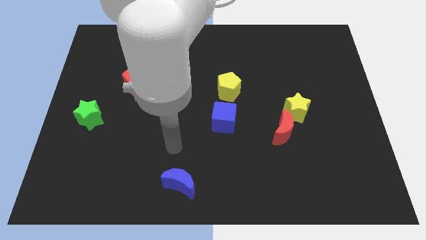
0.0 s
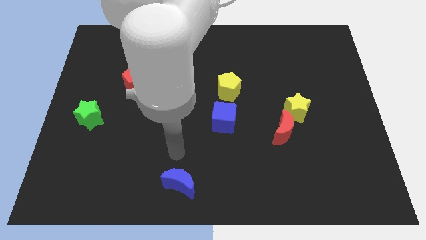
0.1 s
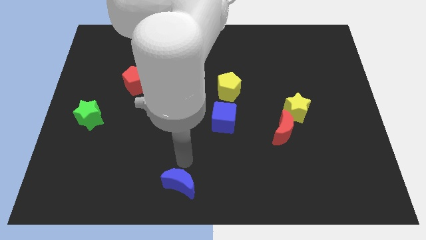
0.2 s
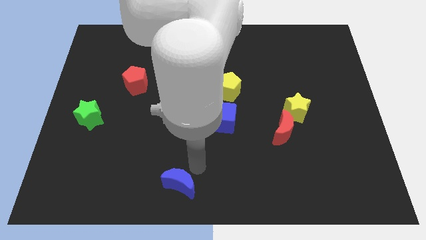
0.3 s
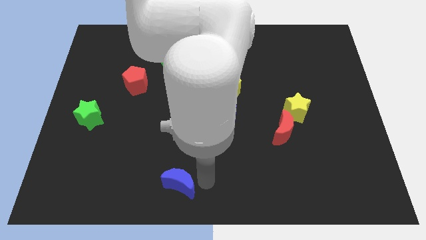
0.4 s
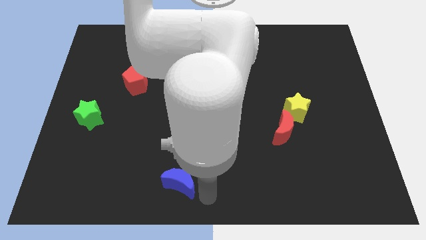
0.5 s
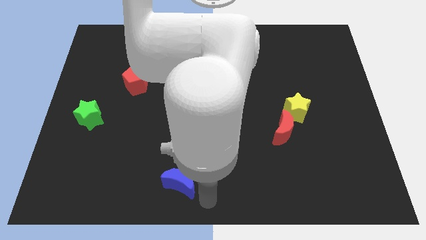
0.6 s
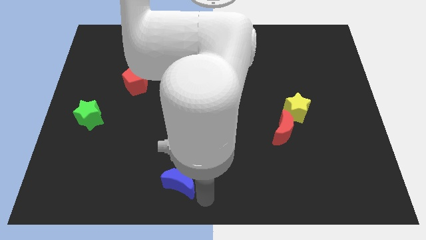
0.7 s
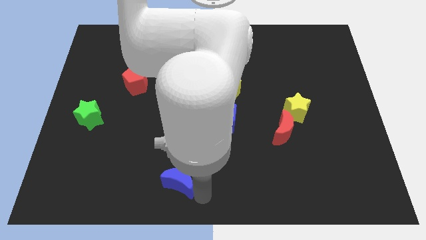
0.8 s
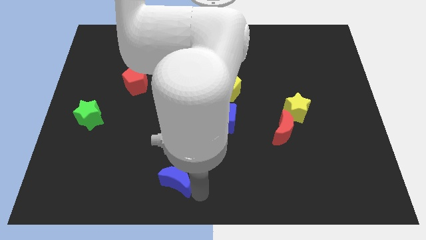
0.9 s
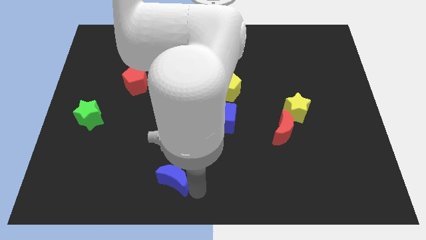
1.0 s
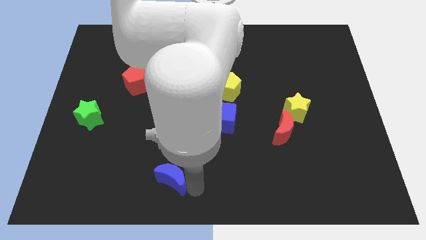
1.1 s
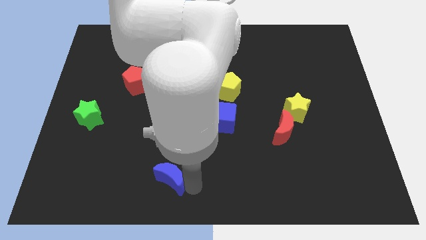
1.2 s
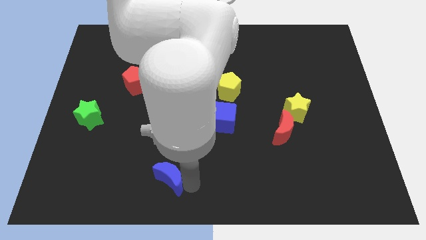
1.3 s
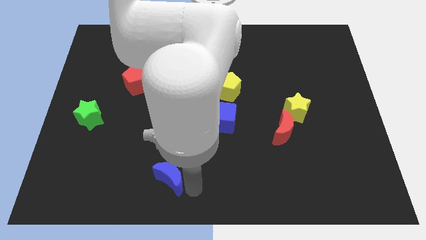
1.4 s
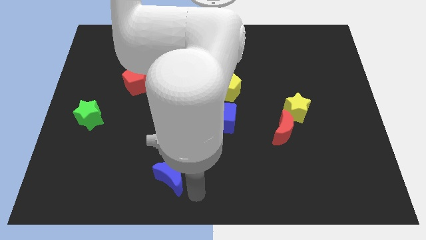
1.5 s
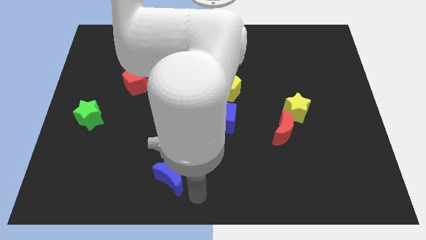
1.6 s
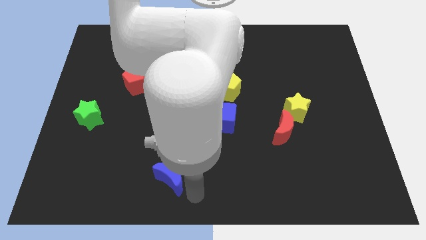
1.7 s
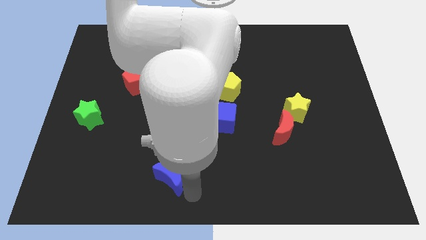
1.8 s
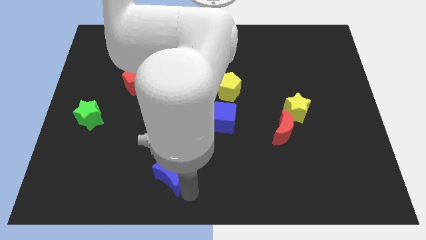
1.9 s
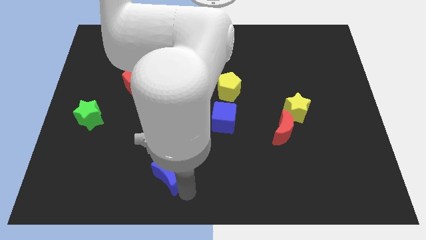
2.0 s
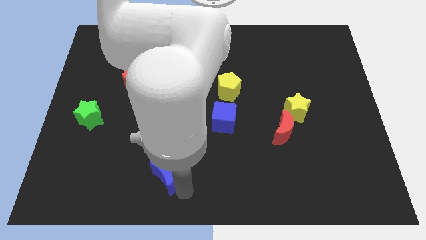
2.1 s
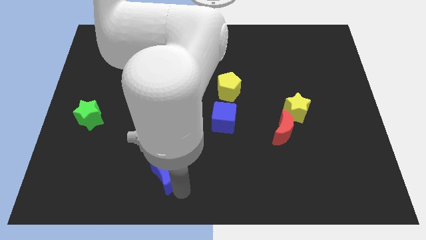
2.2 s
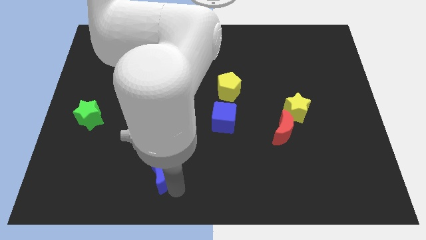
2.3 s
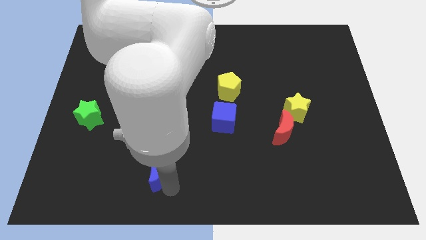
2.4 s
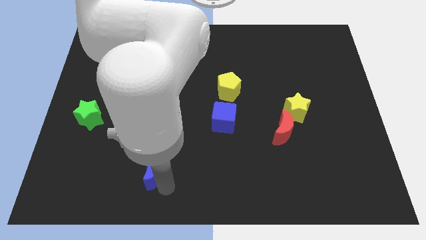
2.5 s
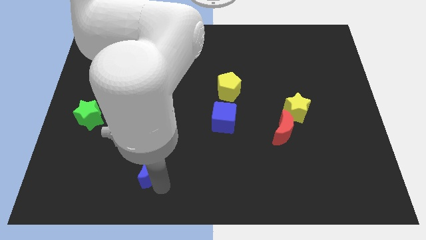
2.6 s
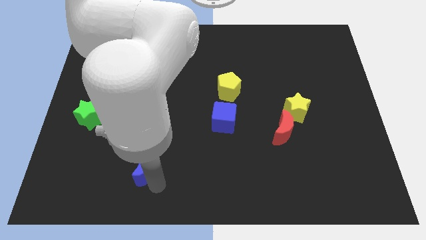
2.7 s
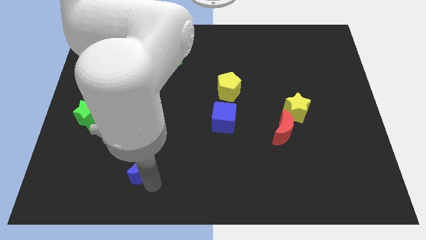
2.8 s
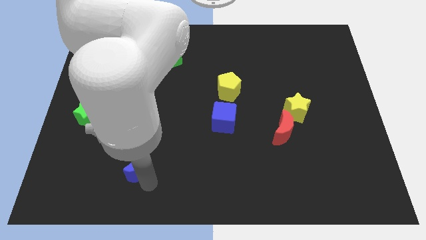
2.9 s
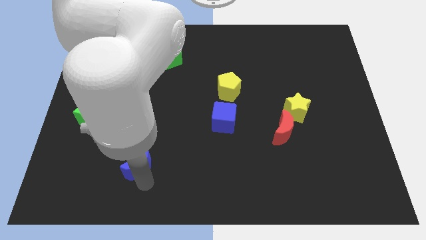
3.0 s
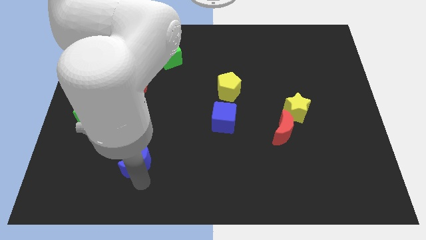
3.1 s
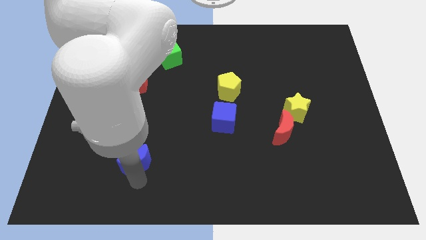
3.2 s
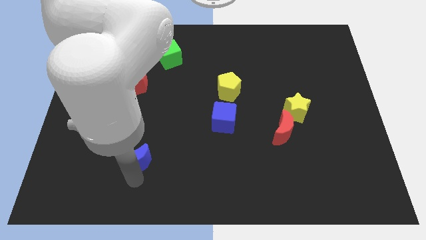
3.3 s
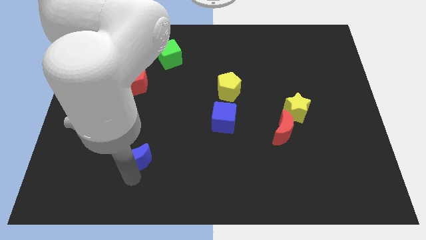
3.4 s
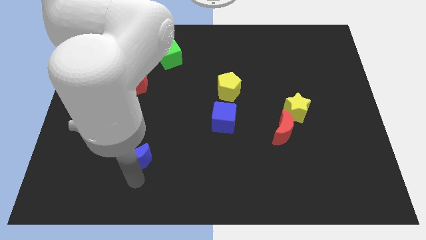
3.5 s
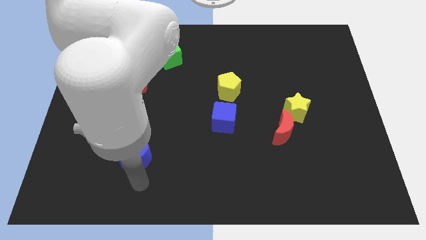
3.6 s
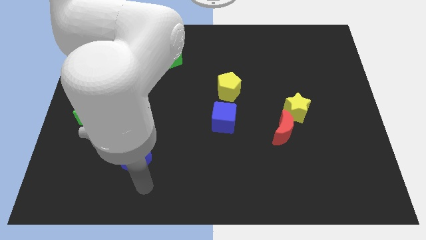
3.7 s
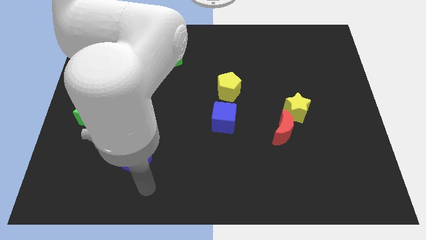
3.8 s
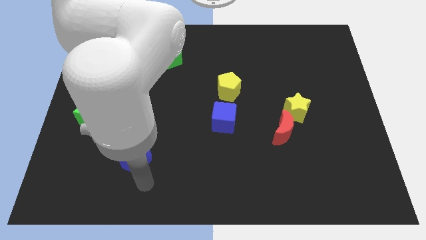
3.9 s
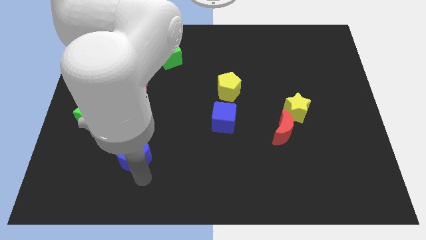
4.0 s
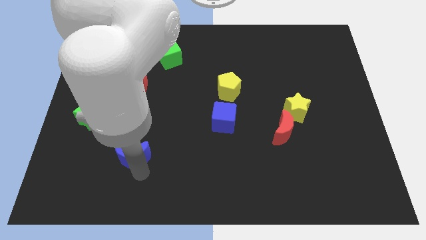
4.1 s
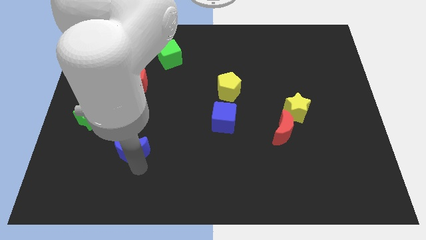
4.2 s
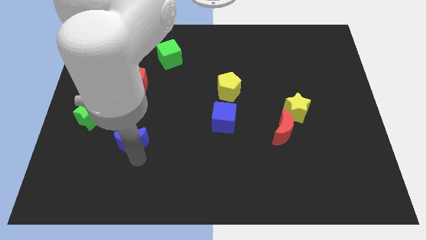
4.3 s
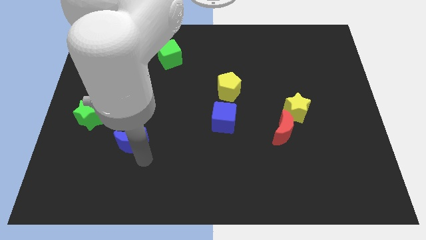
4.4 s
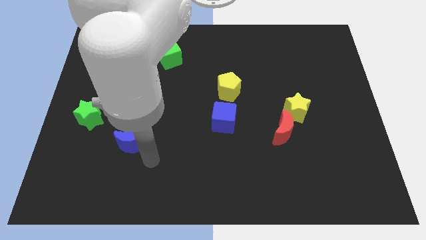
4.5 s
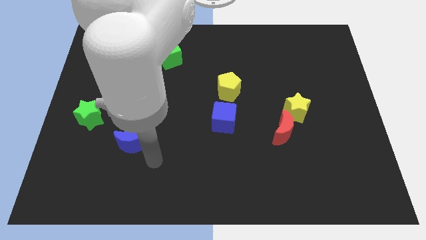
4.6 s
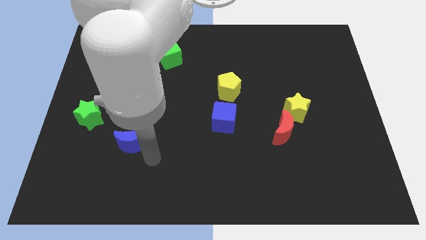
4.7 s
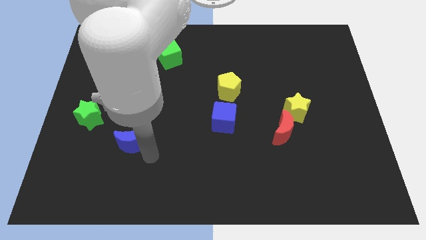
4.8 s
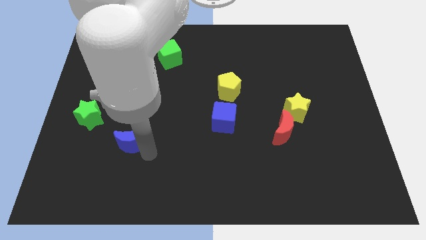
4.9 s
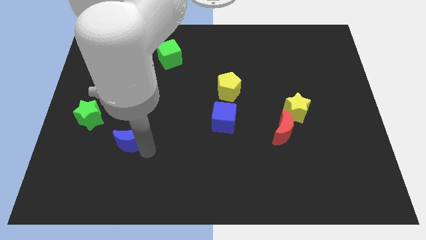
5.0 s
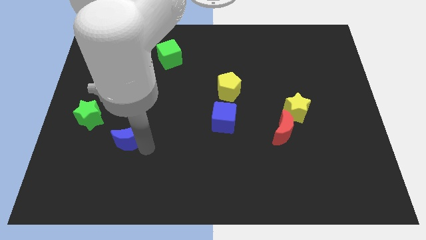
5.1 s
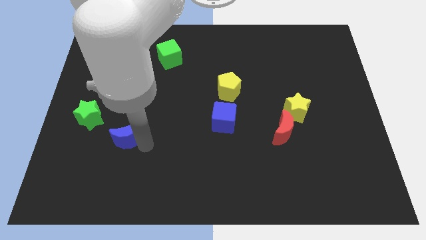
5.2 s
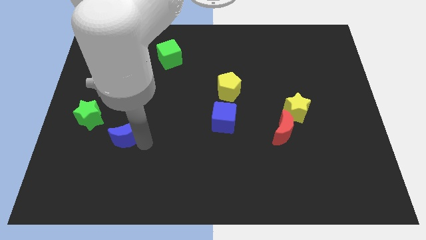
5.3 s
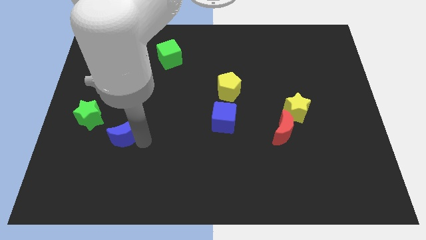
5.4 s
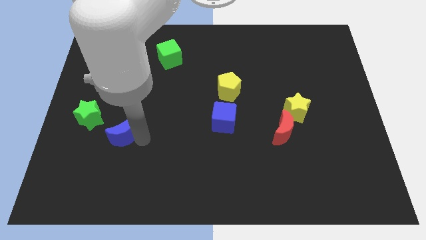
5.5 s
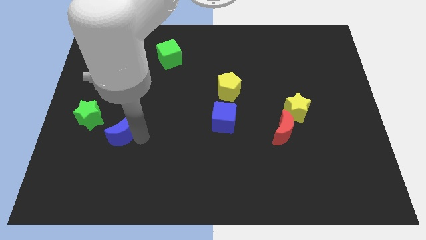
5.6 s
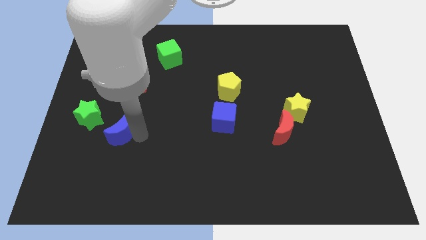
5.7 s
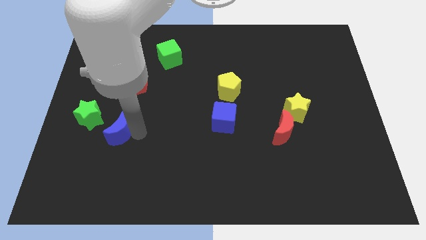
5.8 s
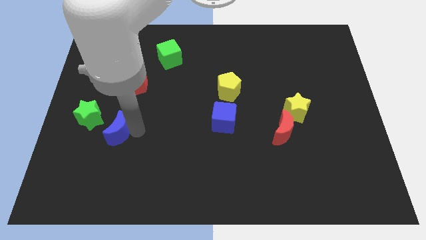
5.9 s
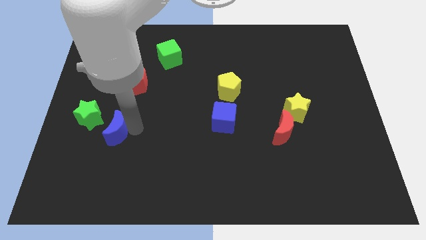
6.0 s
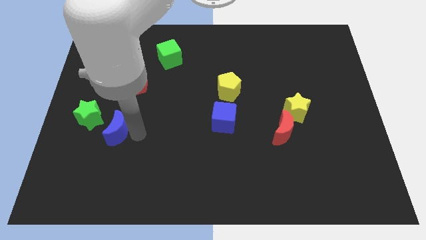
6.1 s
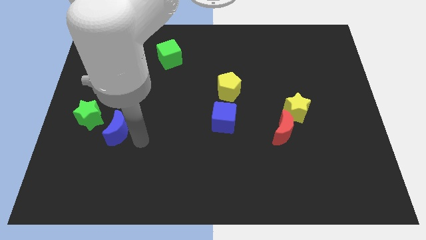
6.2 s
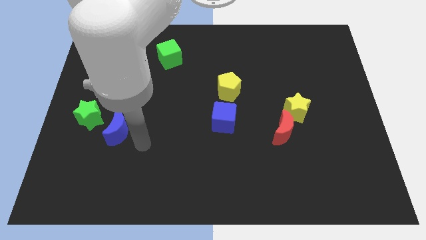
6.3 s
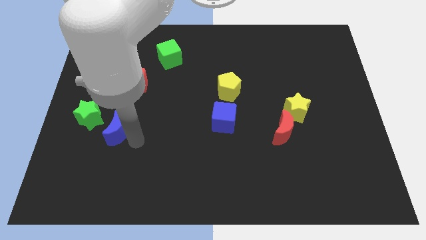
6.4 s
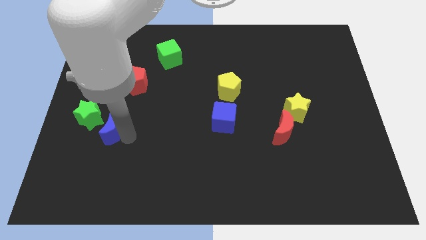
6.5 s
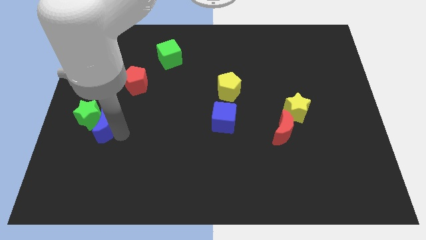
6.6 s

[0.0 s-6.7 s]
put the blue moon to the green star

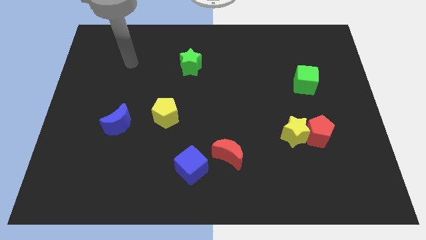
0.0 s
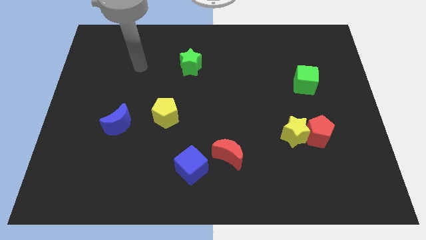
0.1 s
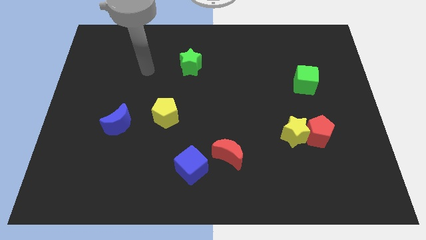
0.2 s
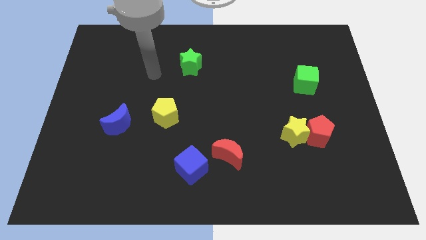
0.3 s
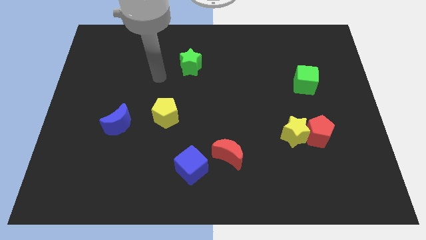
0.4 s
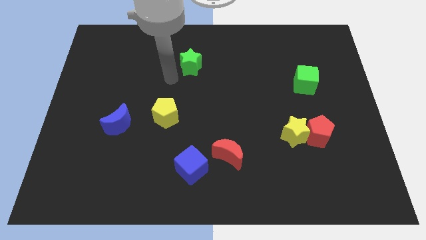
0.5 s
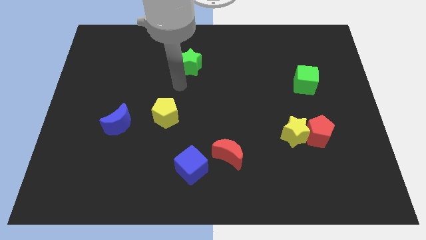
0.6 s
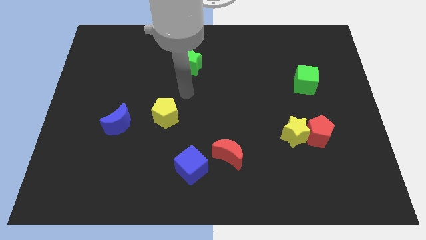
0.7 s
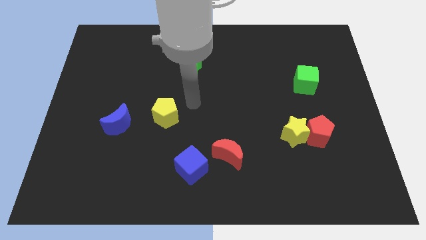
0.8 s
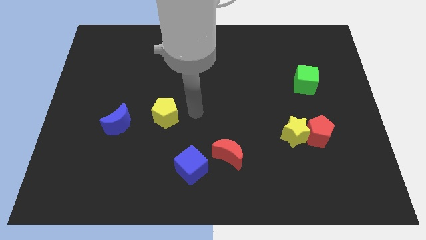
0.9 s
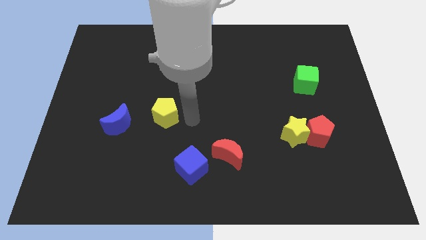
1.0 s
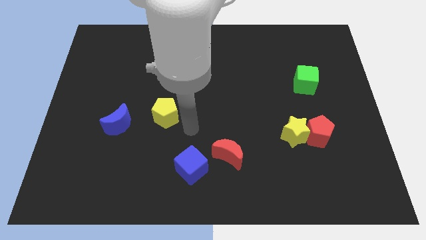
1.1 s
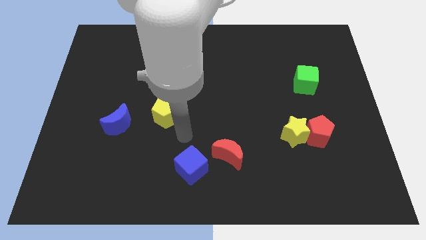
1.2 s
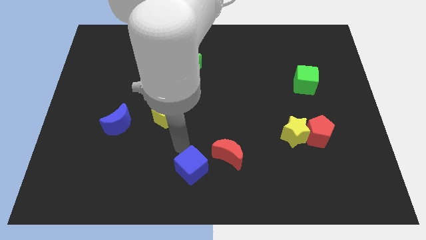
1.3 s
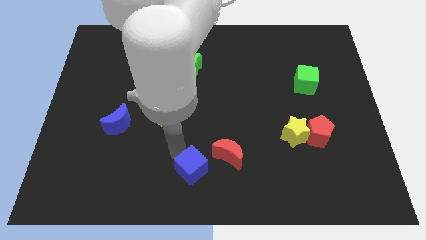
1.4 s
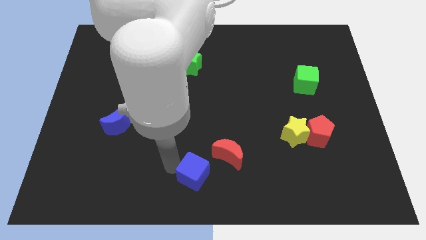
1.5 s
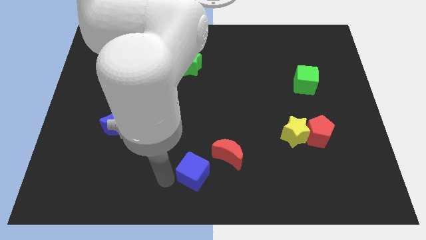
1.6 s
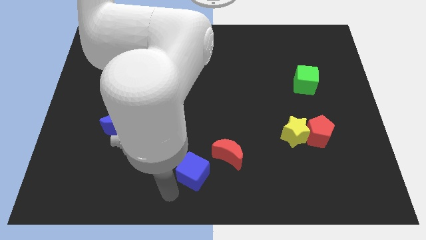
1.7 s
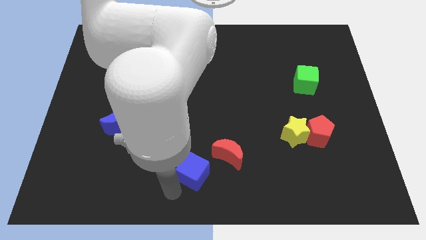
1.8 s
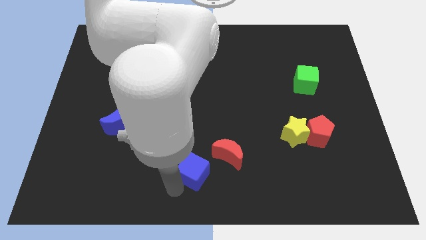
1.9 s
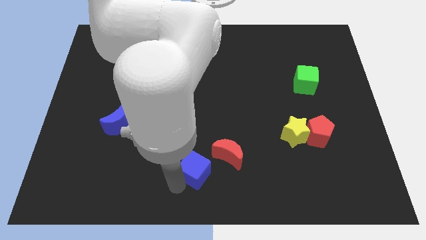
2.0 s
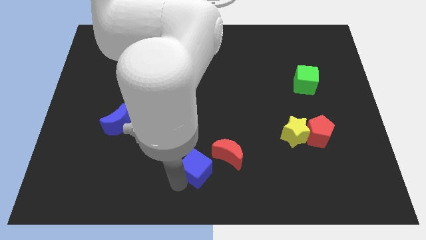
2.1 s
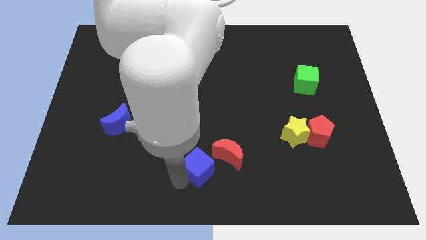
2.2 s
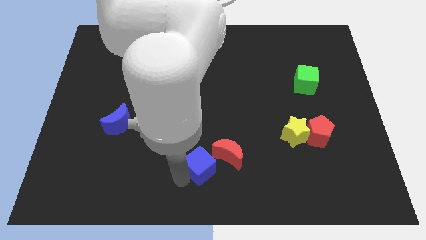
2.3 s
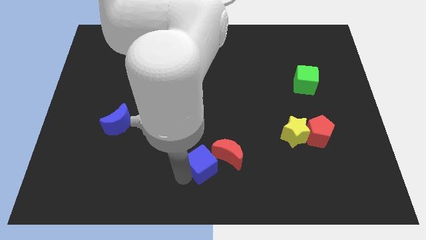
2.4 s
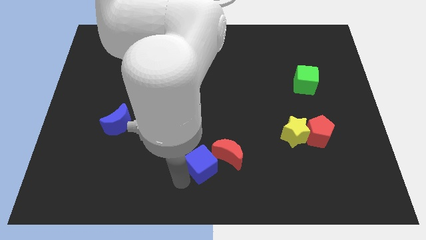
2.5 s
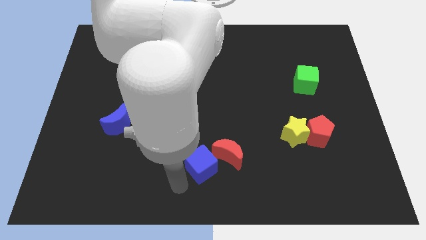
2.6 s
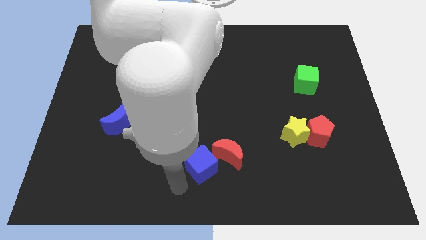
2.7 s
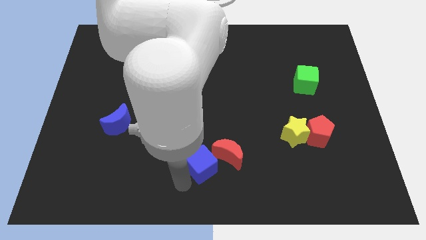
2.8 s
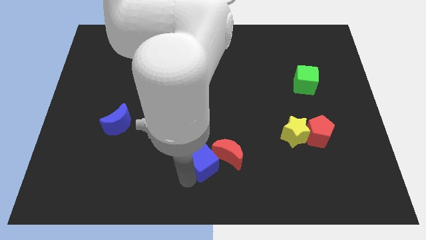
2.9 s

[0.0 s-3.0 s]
push the blue cube towards the red moon
